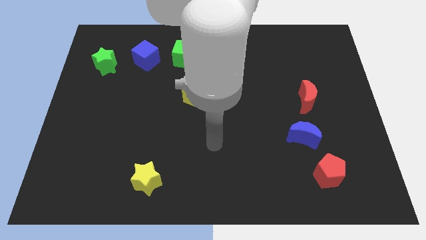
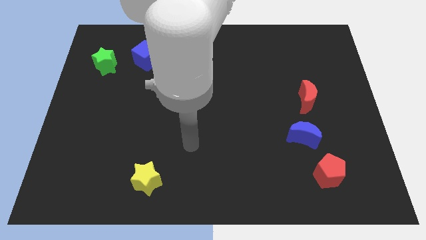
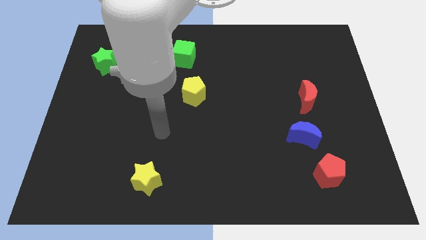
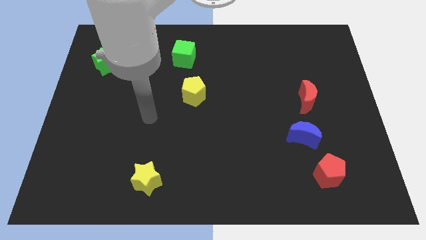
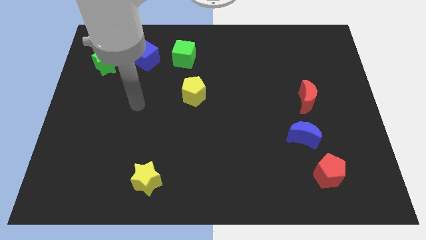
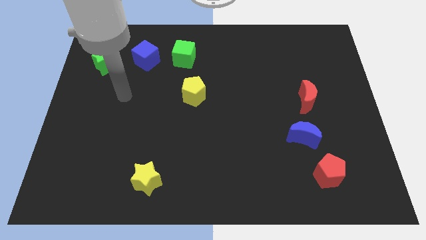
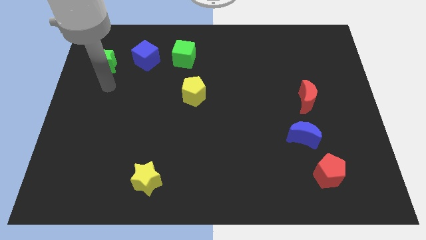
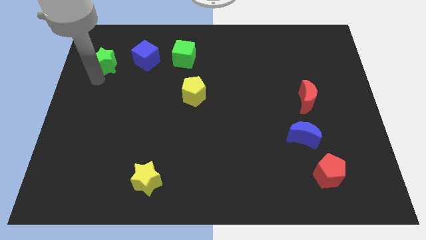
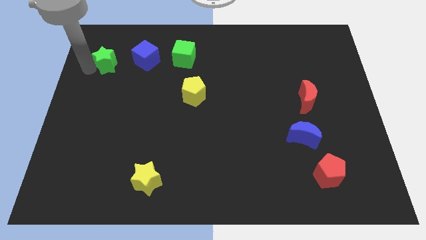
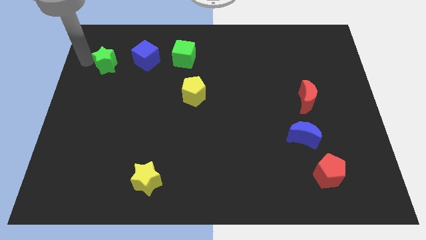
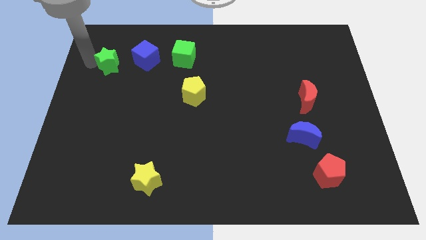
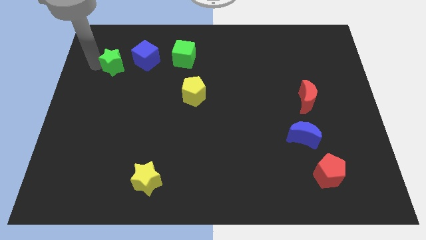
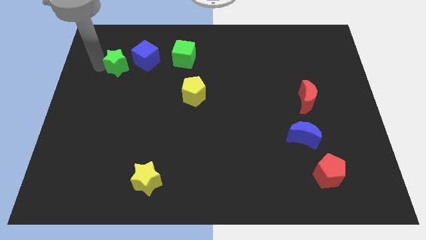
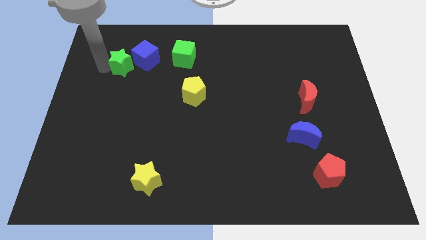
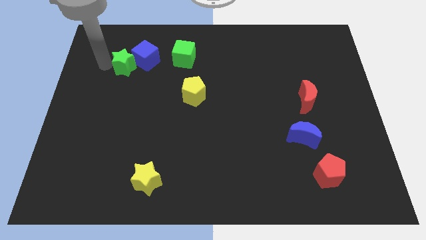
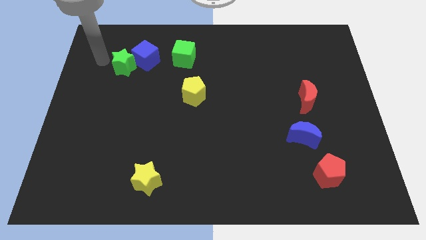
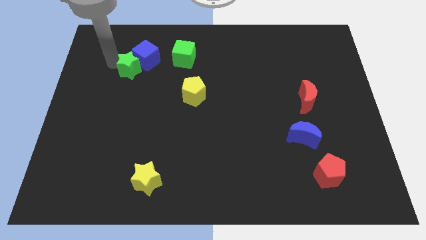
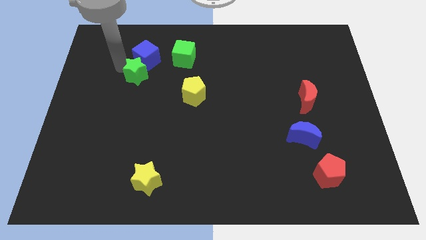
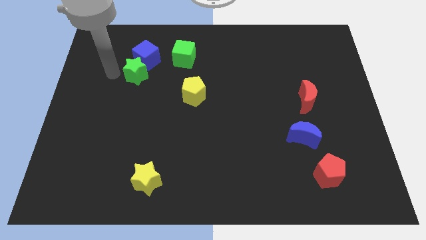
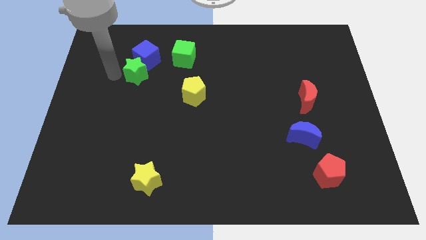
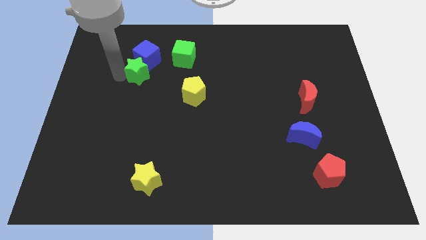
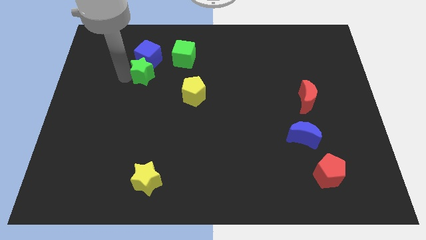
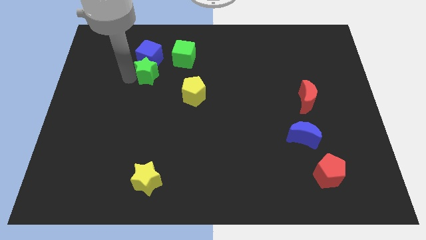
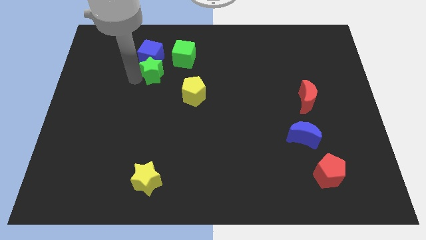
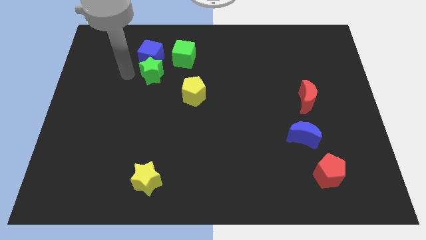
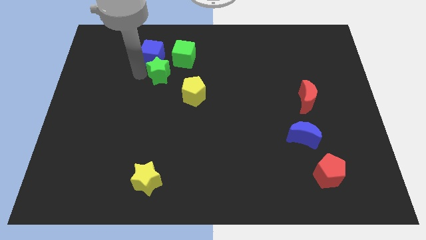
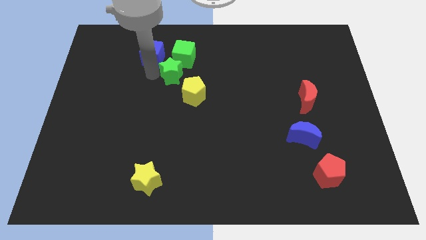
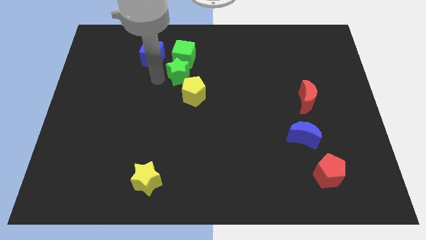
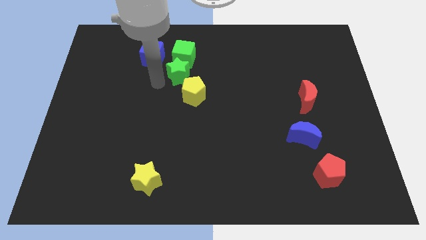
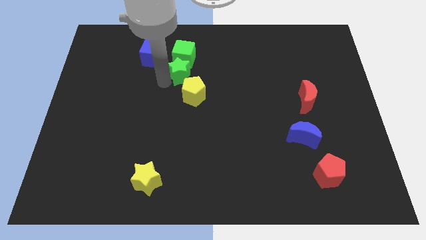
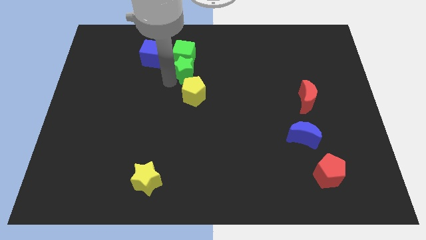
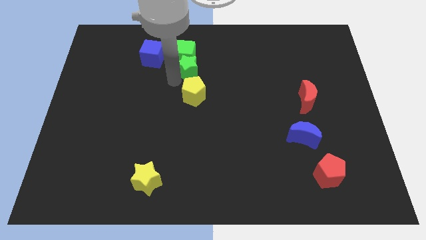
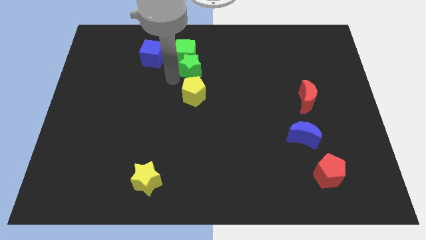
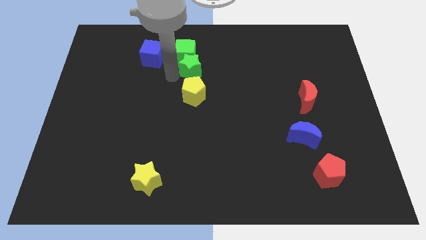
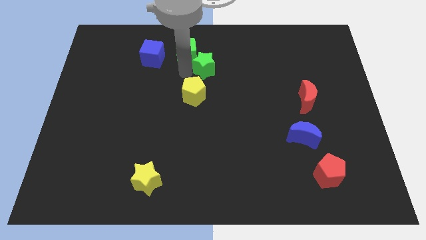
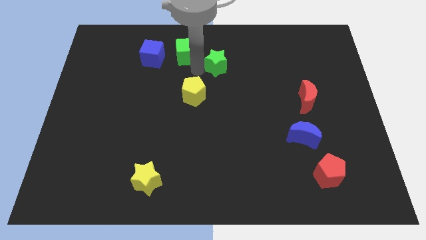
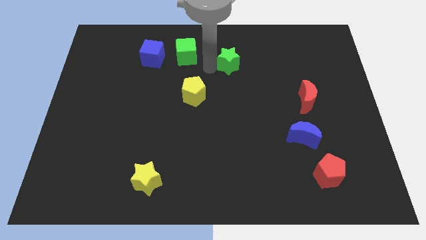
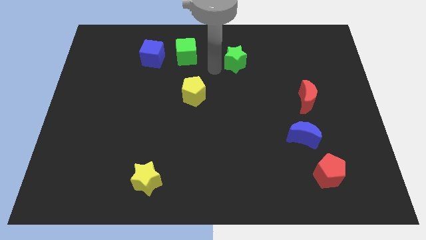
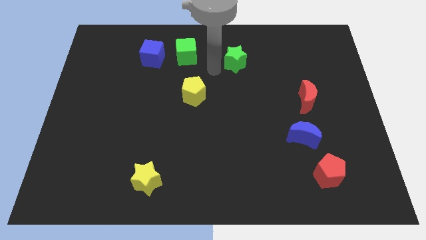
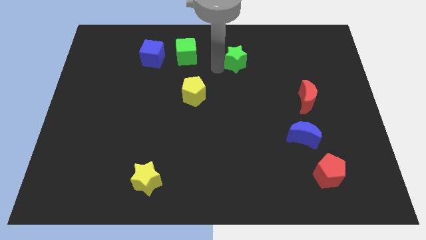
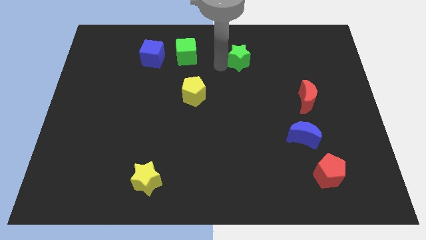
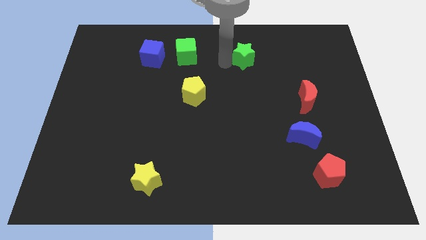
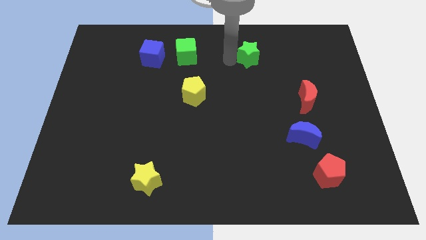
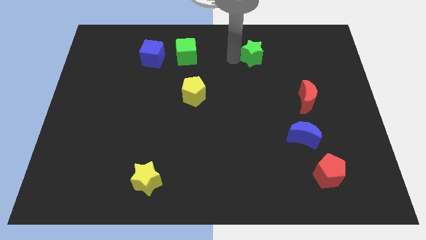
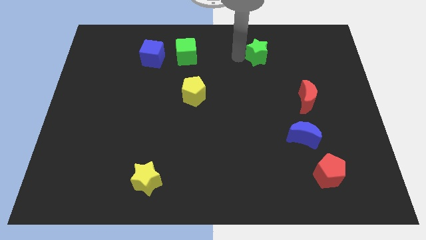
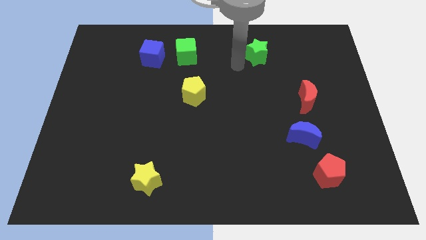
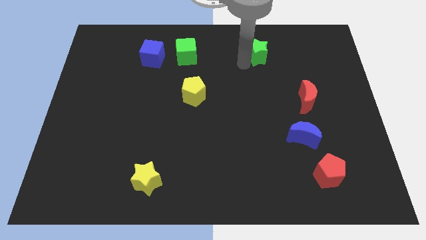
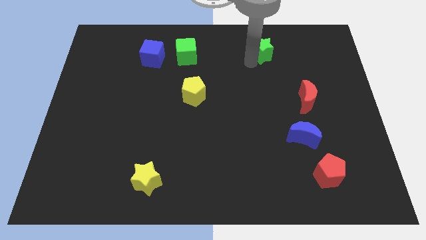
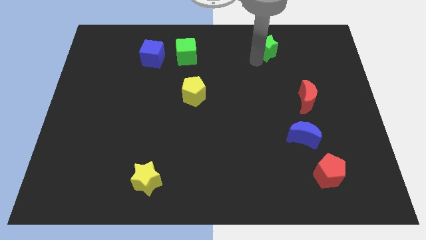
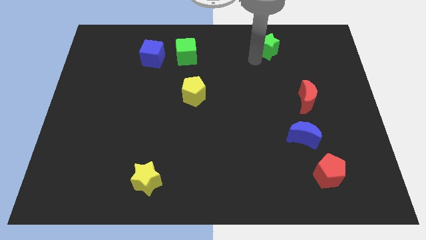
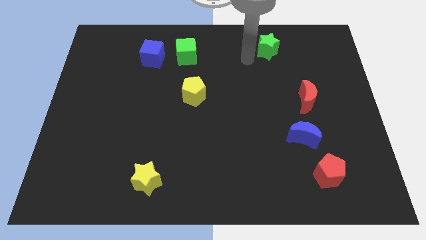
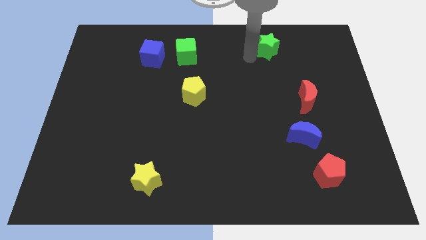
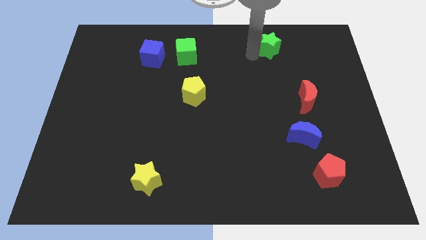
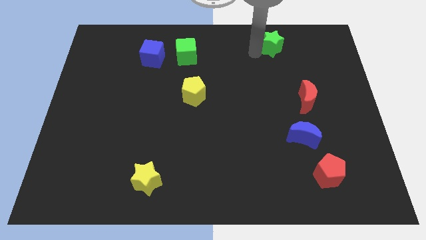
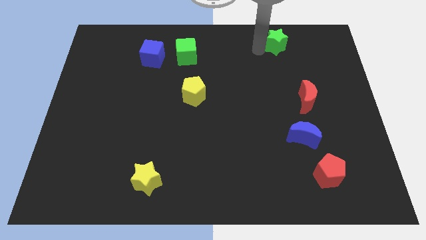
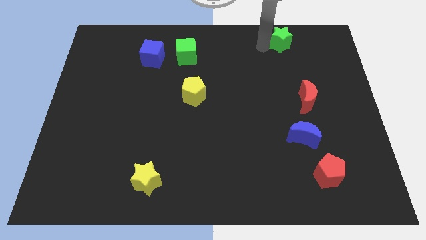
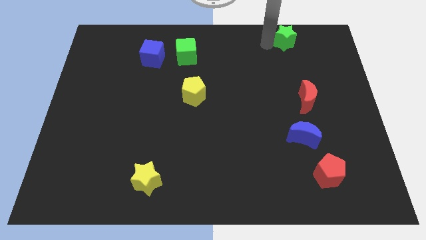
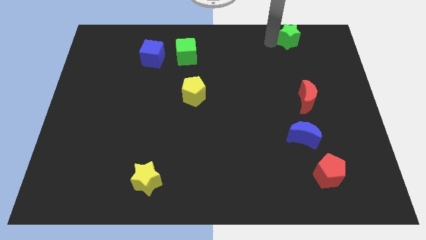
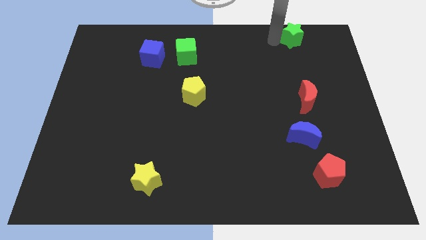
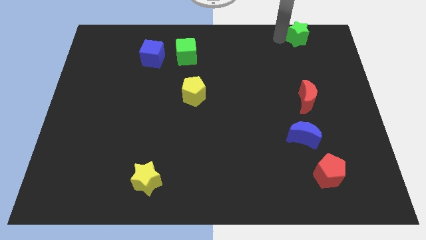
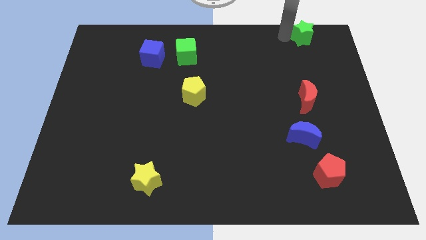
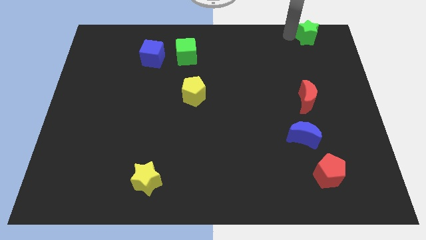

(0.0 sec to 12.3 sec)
put the green star to the top right of the board

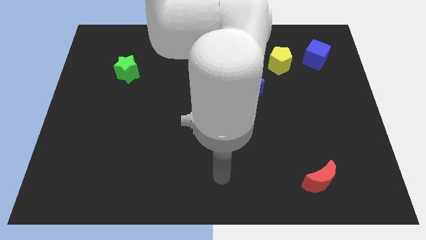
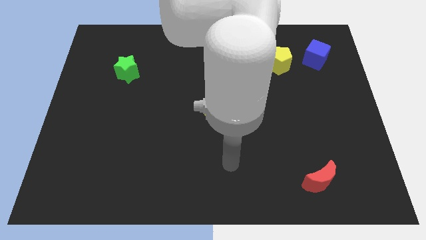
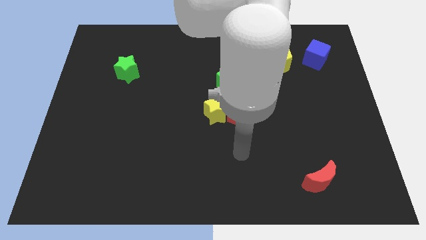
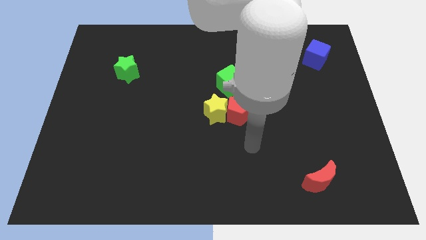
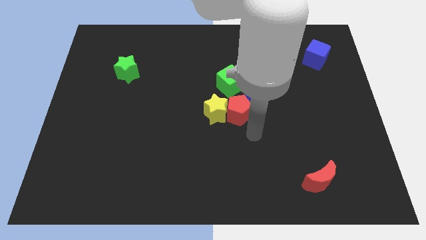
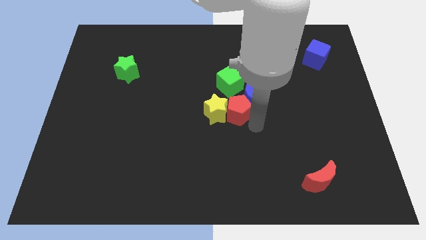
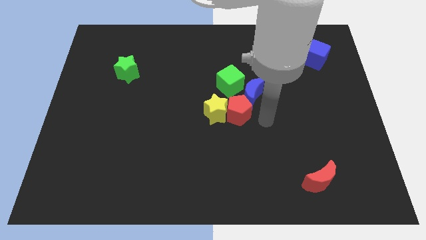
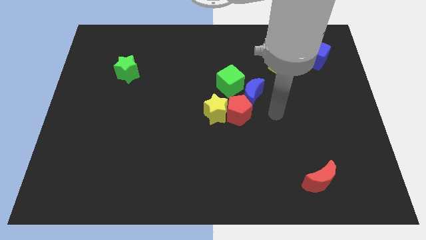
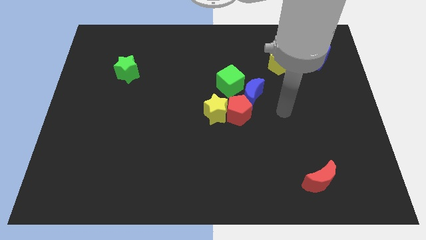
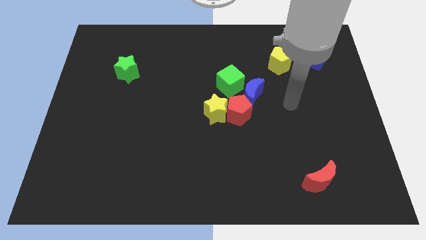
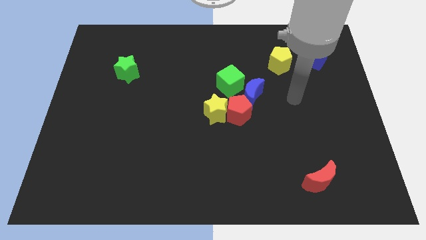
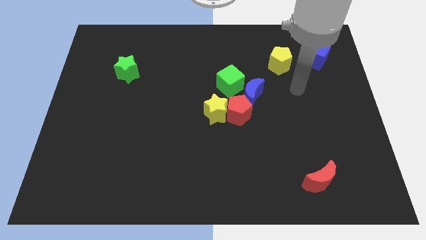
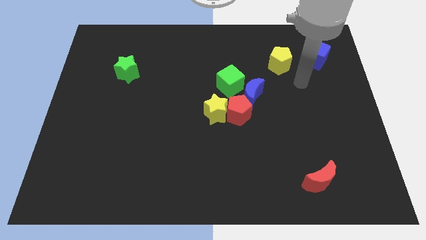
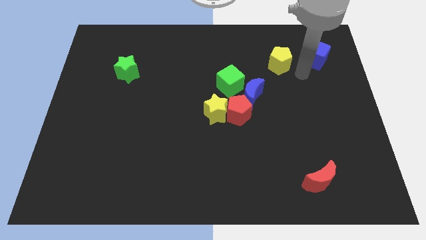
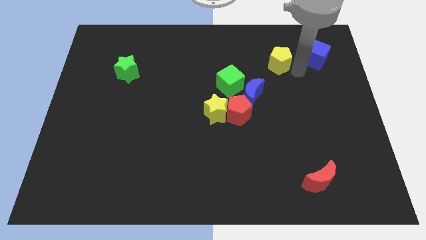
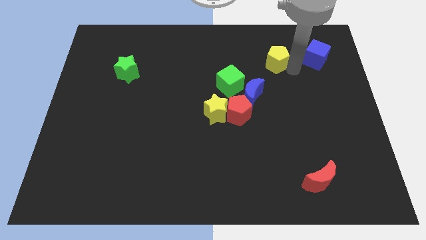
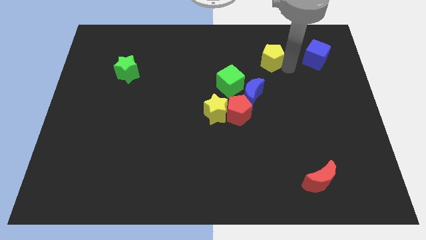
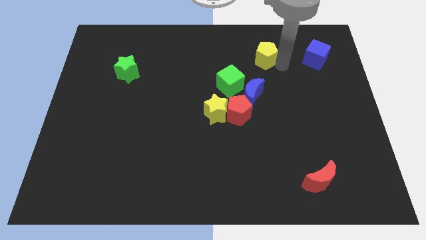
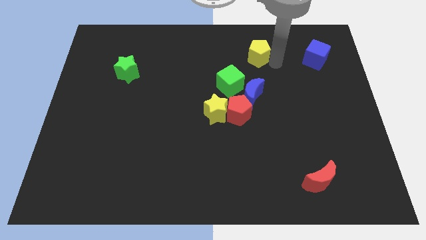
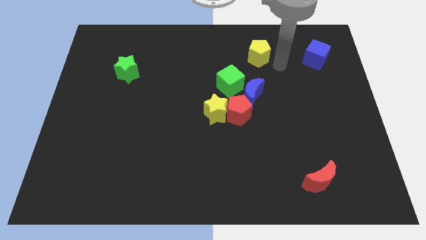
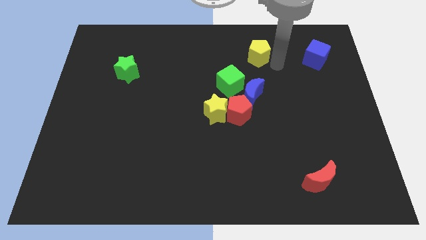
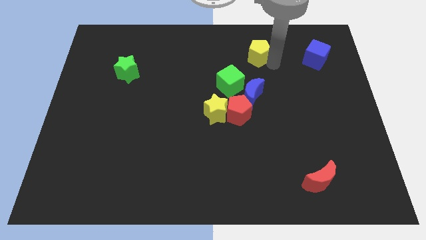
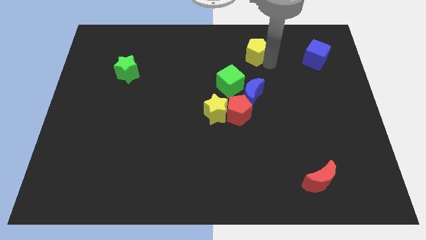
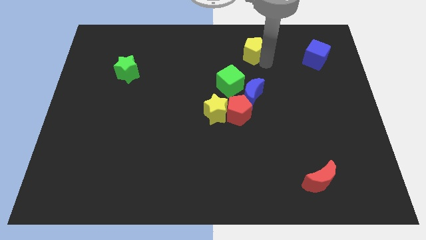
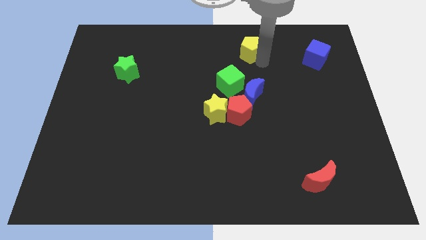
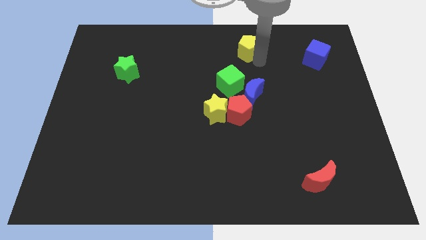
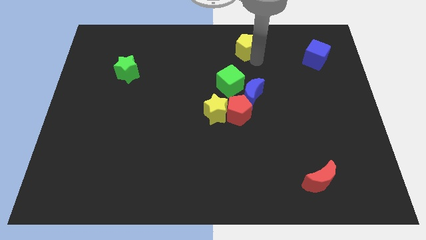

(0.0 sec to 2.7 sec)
push the yellow pentagon to the top side
